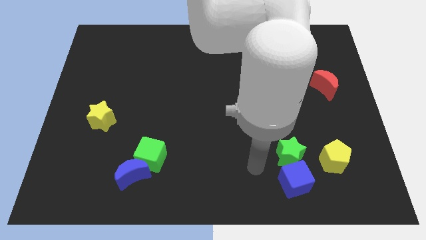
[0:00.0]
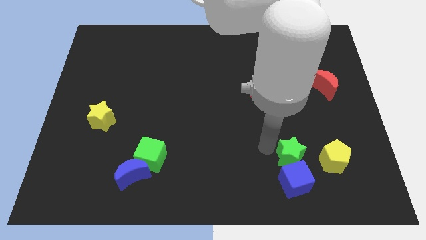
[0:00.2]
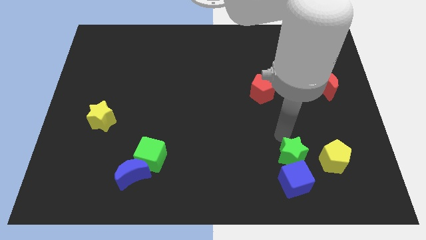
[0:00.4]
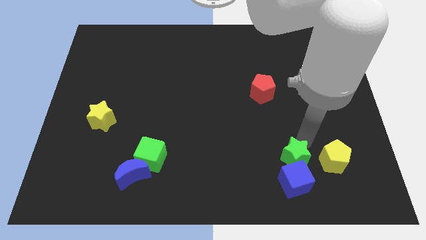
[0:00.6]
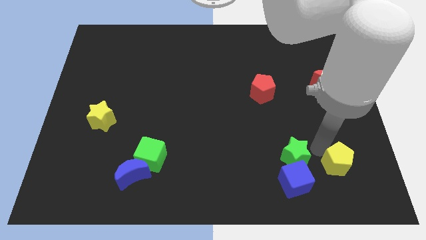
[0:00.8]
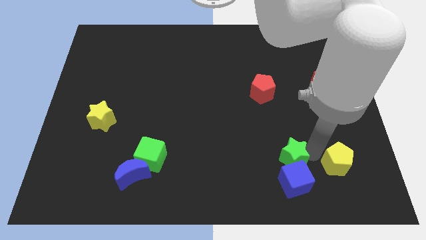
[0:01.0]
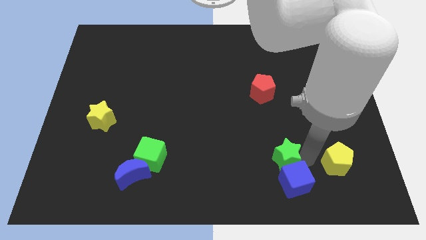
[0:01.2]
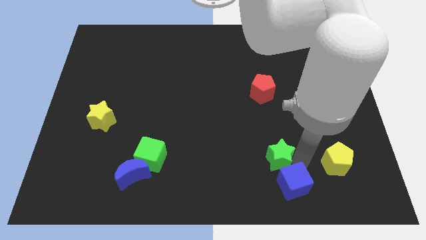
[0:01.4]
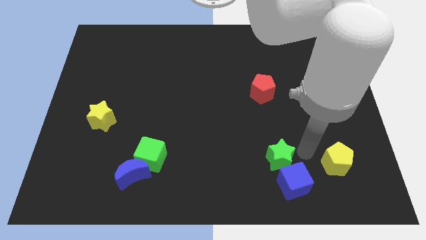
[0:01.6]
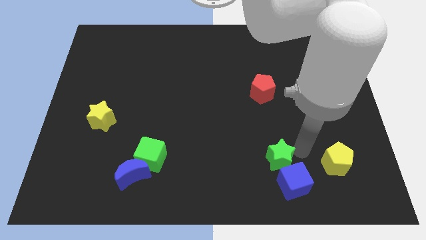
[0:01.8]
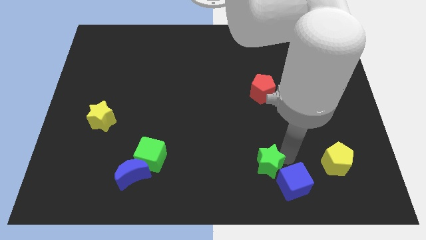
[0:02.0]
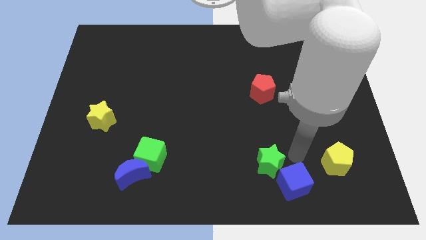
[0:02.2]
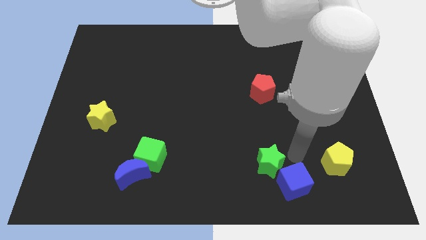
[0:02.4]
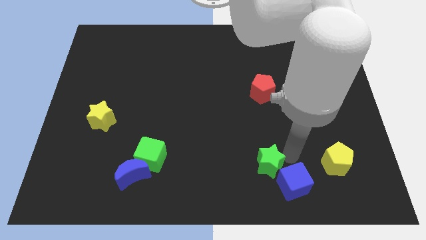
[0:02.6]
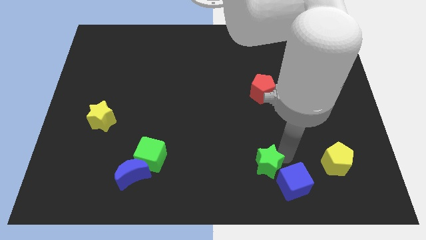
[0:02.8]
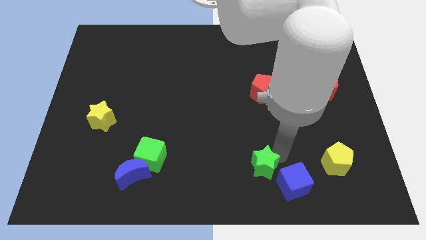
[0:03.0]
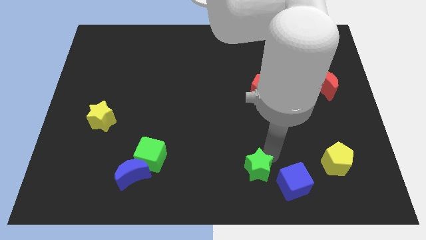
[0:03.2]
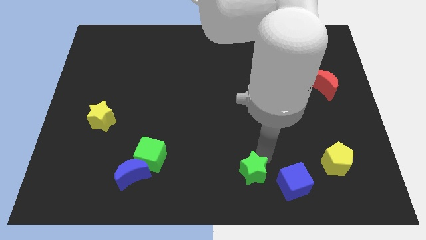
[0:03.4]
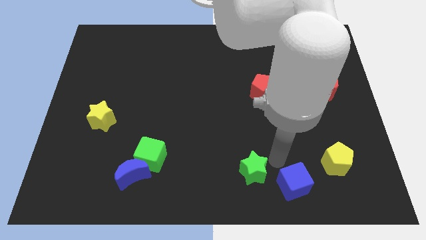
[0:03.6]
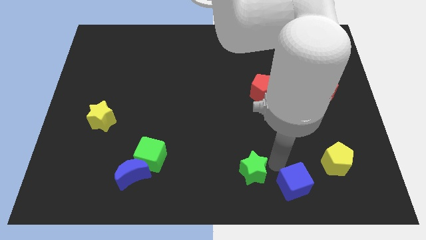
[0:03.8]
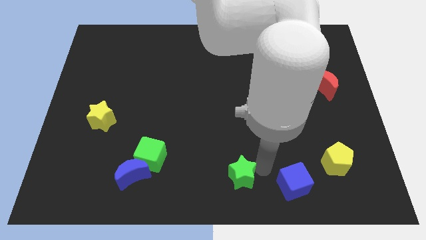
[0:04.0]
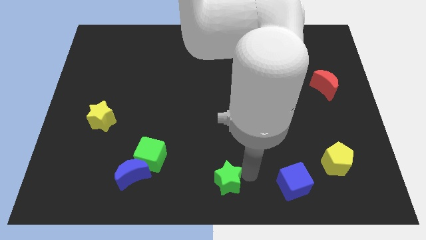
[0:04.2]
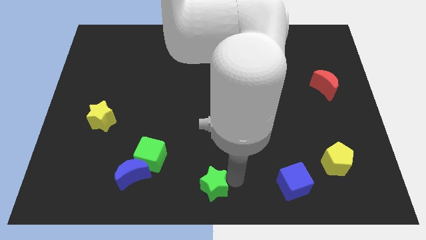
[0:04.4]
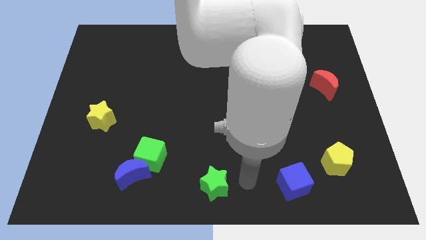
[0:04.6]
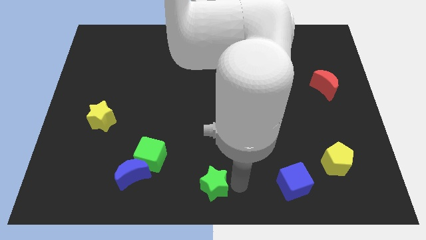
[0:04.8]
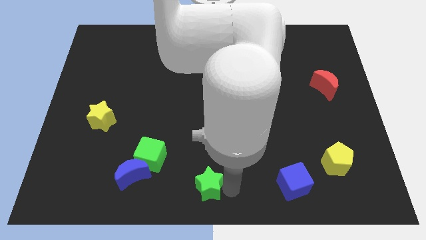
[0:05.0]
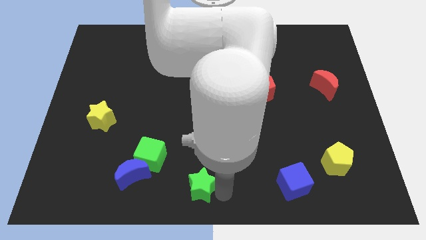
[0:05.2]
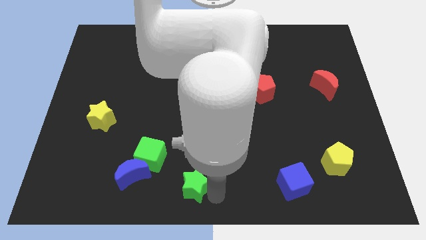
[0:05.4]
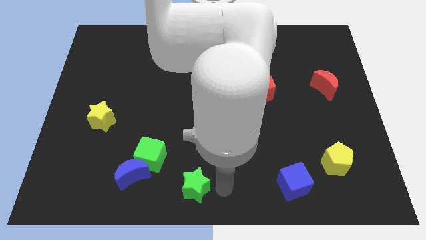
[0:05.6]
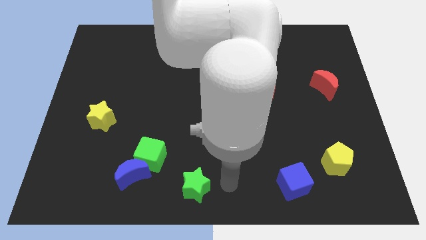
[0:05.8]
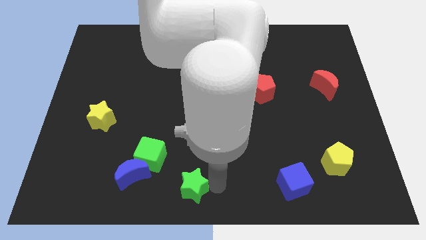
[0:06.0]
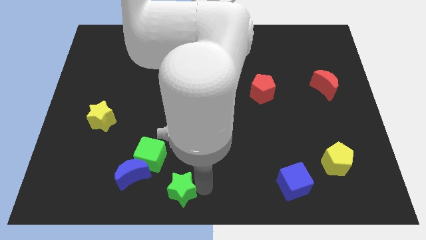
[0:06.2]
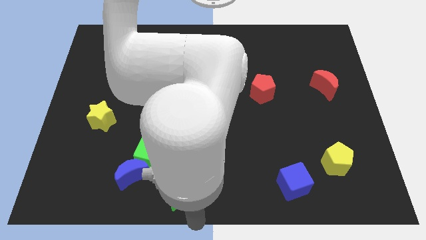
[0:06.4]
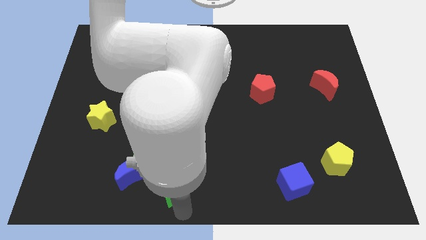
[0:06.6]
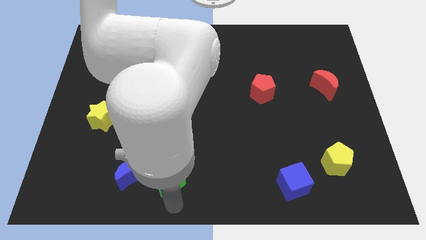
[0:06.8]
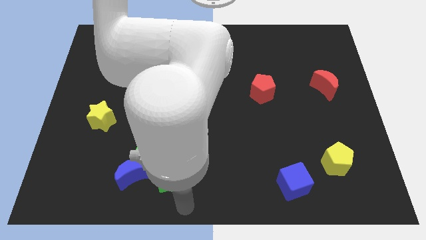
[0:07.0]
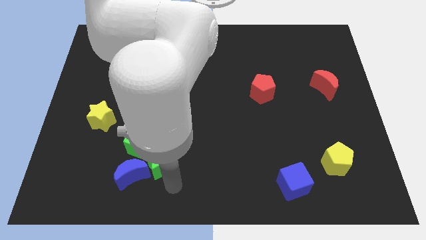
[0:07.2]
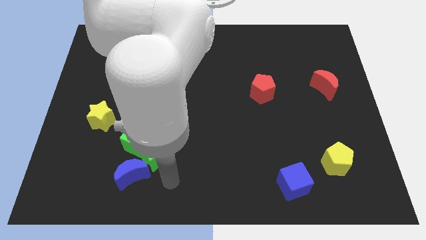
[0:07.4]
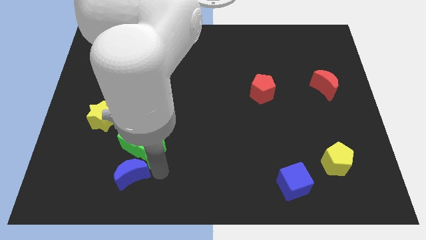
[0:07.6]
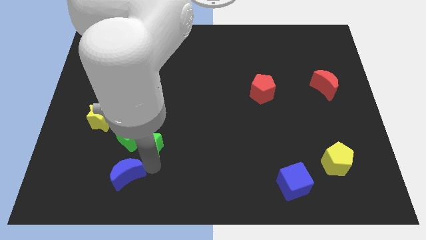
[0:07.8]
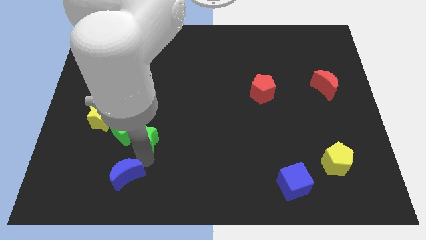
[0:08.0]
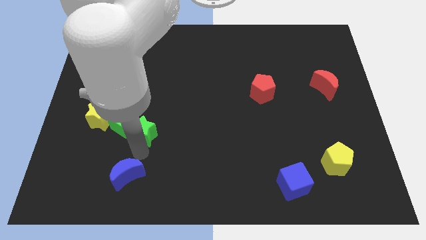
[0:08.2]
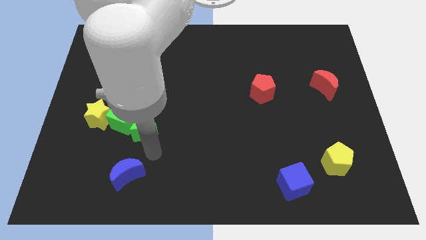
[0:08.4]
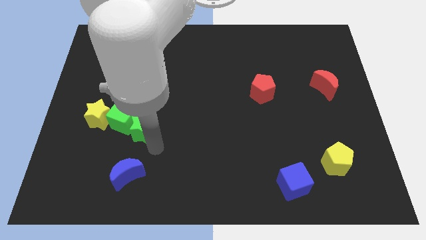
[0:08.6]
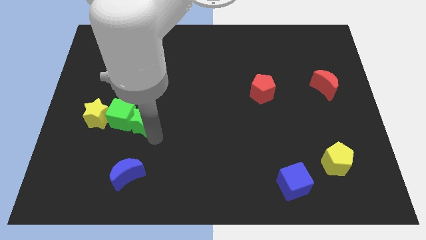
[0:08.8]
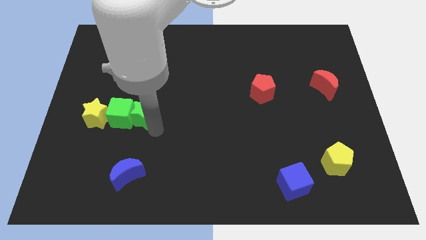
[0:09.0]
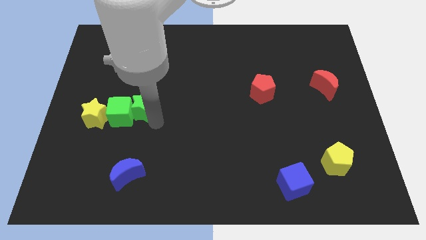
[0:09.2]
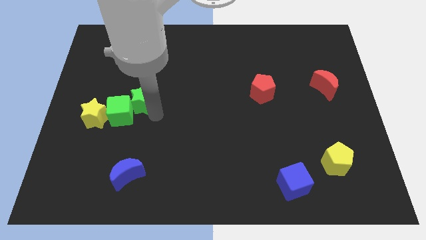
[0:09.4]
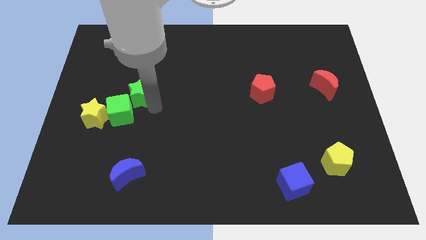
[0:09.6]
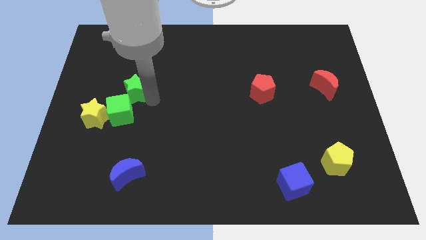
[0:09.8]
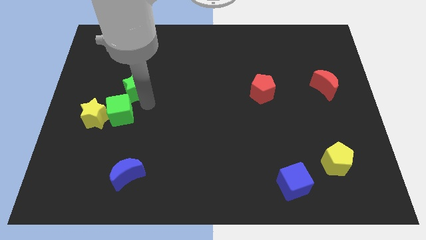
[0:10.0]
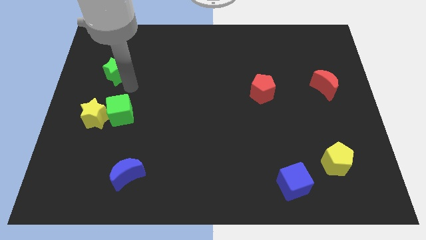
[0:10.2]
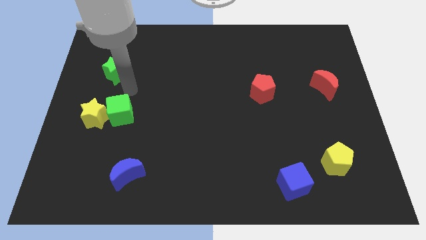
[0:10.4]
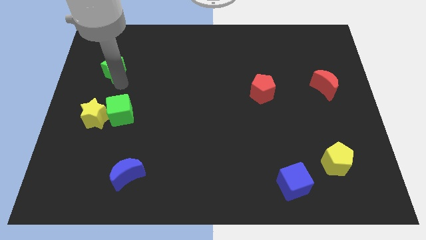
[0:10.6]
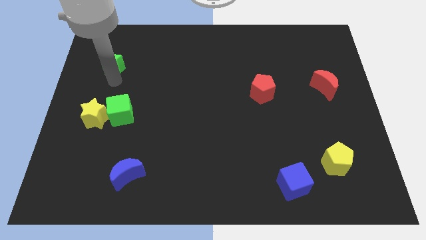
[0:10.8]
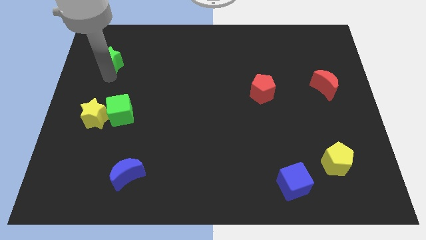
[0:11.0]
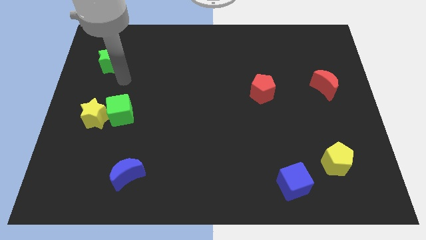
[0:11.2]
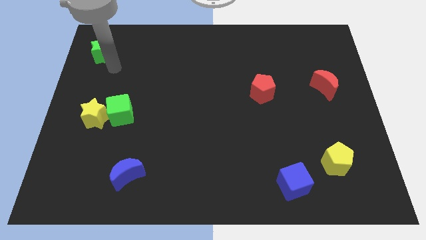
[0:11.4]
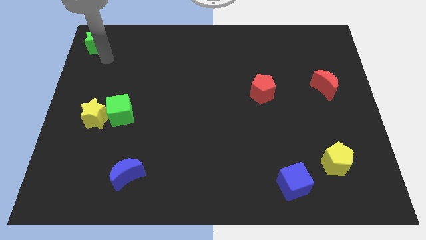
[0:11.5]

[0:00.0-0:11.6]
put the green star to the top left corner

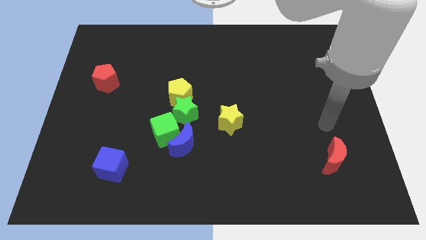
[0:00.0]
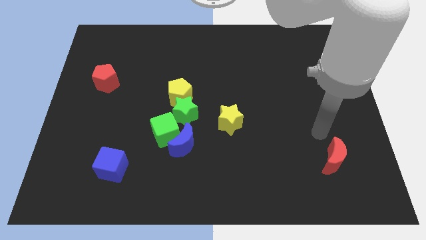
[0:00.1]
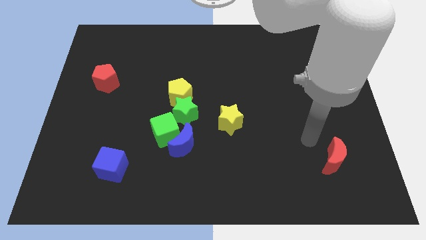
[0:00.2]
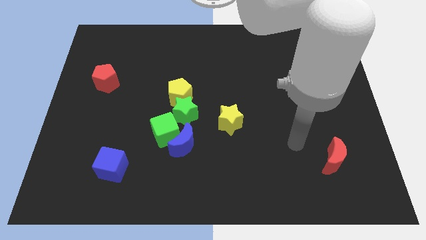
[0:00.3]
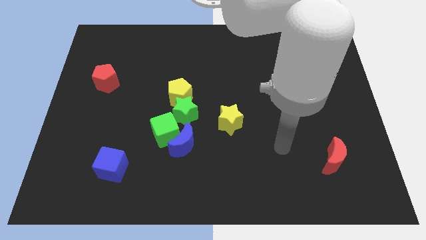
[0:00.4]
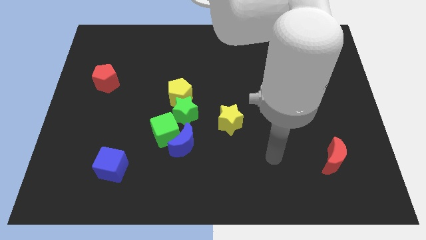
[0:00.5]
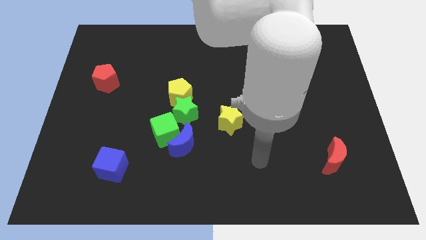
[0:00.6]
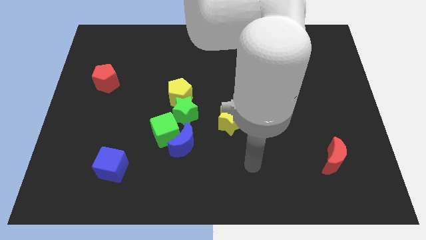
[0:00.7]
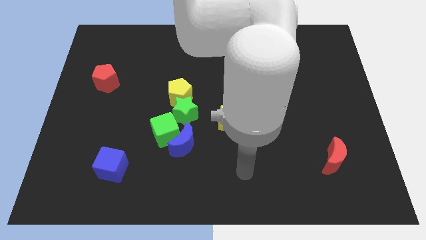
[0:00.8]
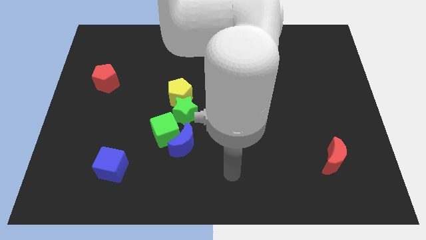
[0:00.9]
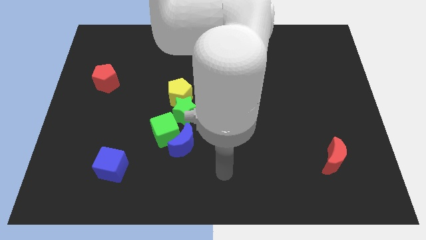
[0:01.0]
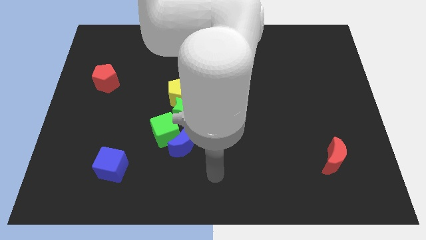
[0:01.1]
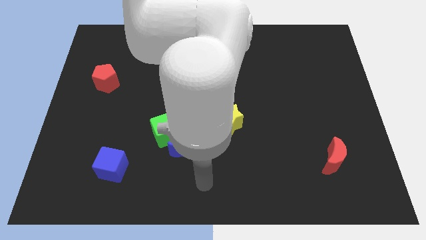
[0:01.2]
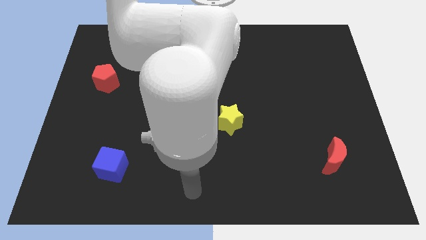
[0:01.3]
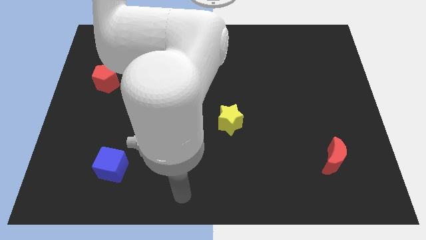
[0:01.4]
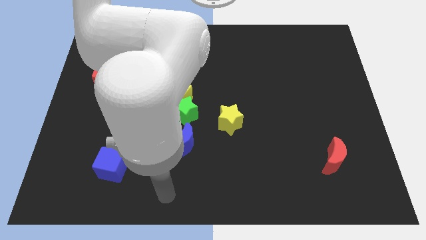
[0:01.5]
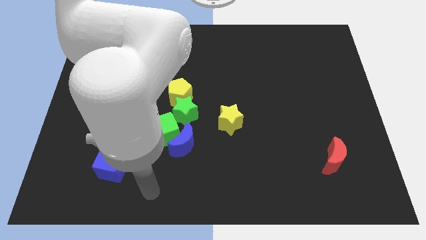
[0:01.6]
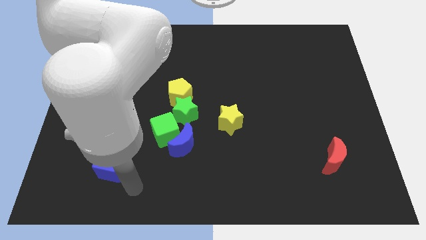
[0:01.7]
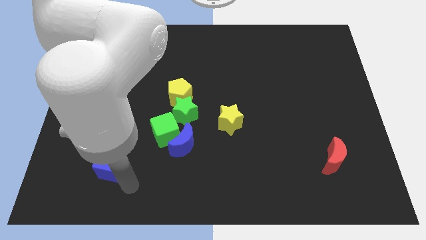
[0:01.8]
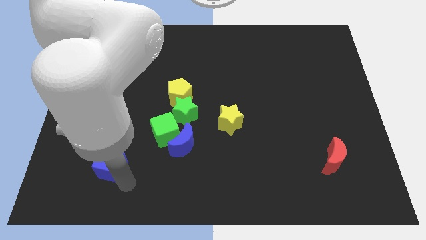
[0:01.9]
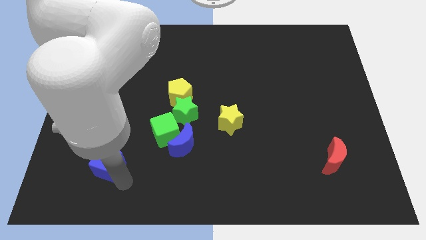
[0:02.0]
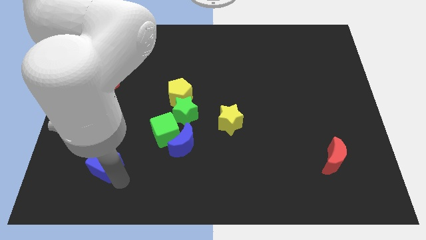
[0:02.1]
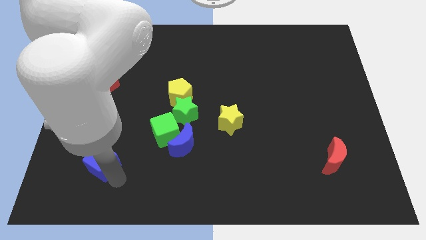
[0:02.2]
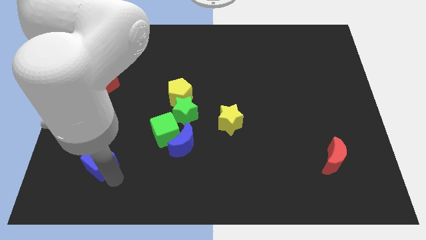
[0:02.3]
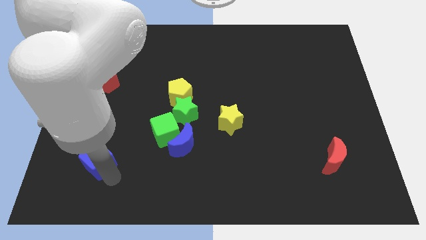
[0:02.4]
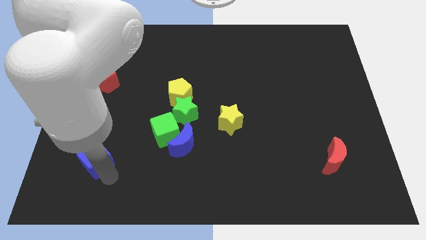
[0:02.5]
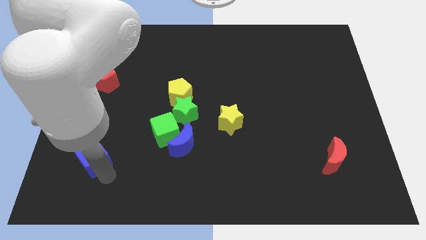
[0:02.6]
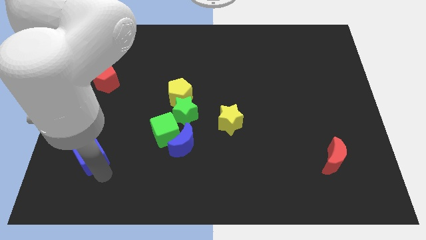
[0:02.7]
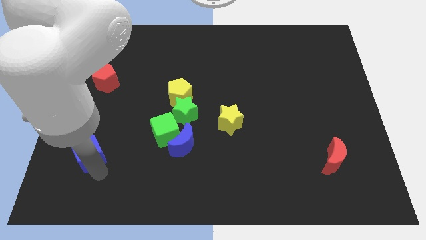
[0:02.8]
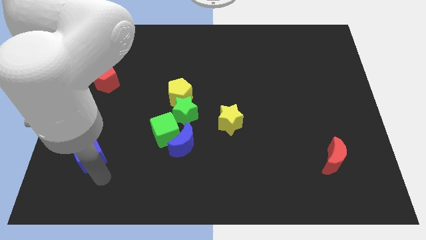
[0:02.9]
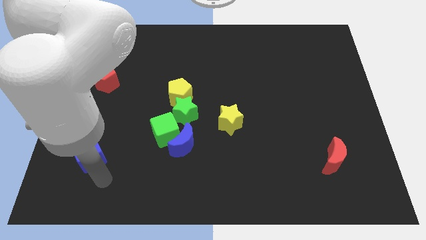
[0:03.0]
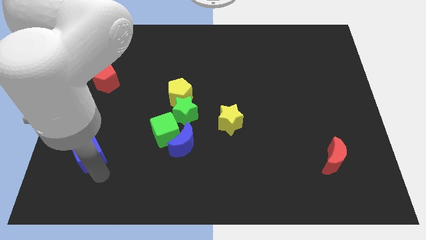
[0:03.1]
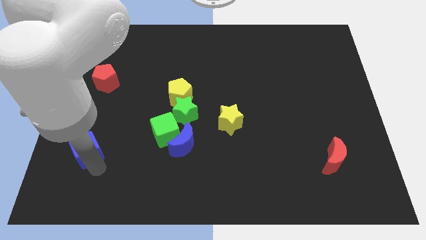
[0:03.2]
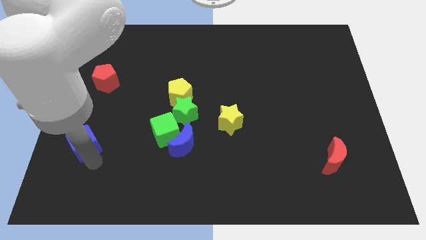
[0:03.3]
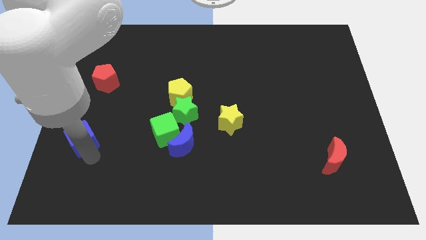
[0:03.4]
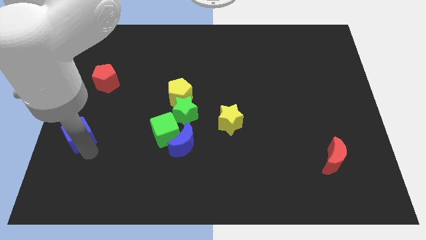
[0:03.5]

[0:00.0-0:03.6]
slide the blue cube to the left side of the board
